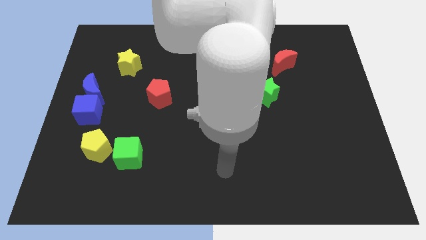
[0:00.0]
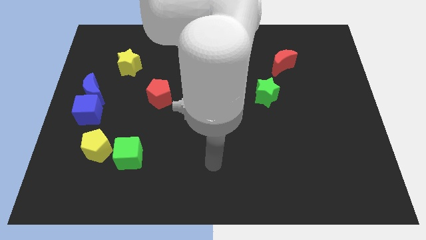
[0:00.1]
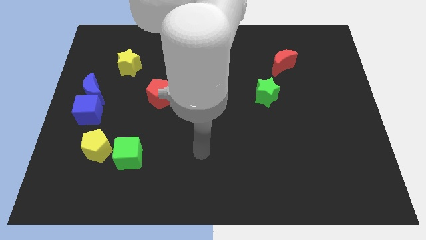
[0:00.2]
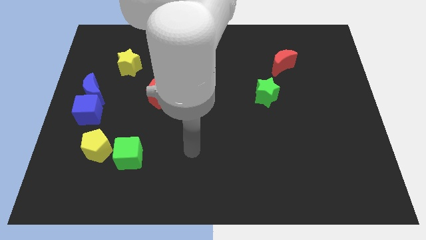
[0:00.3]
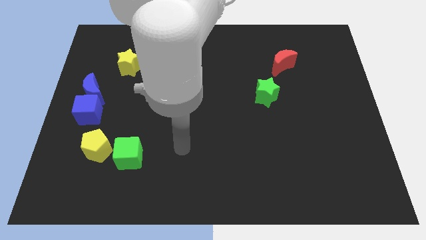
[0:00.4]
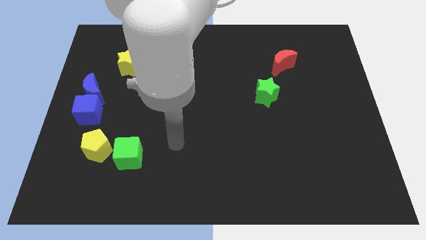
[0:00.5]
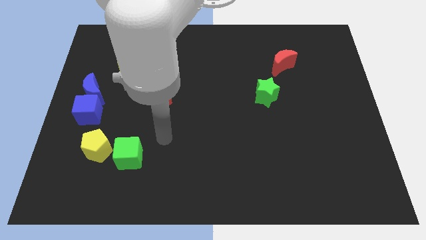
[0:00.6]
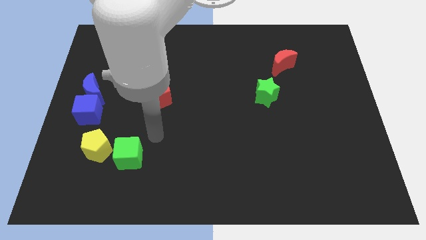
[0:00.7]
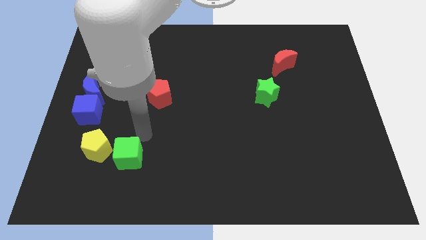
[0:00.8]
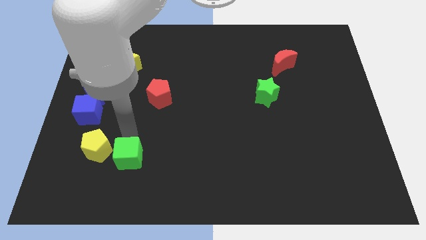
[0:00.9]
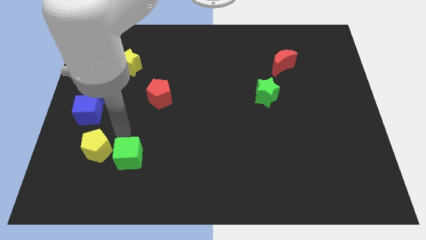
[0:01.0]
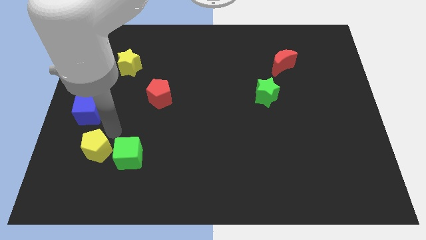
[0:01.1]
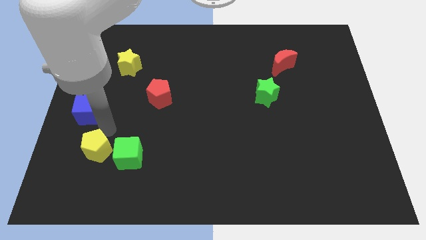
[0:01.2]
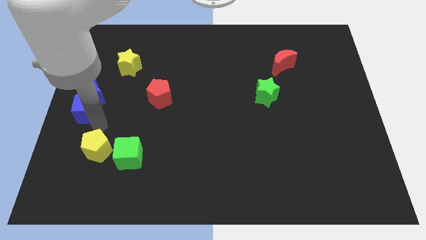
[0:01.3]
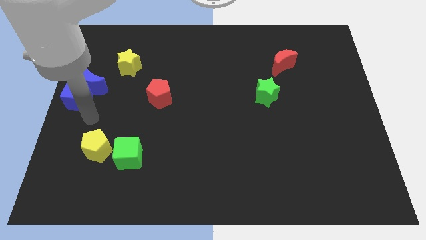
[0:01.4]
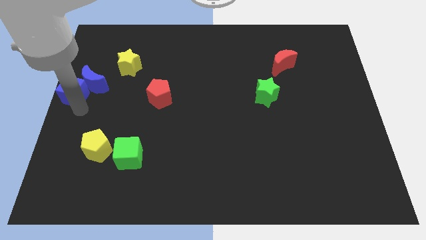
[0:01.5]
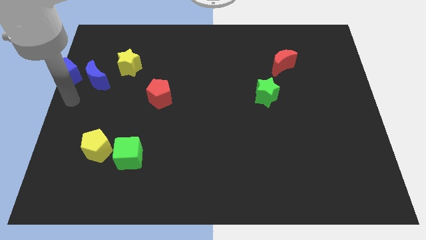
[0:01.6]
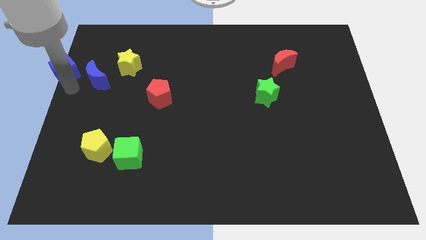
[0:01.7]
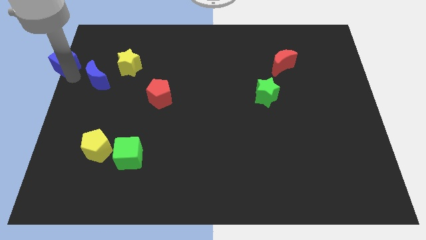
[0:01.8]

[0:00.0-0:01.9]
separate the blue moon from the blue cube

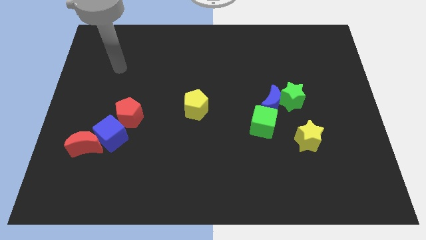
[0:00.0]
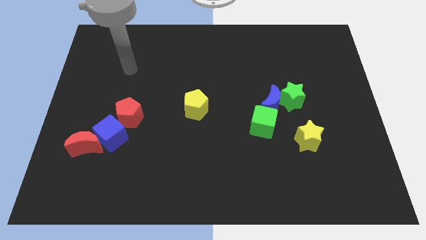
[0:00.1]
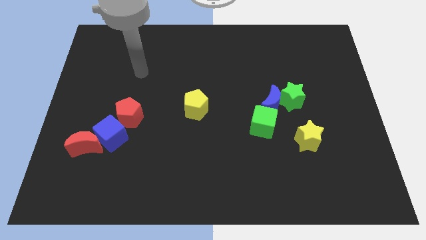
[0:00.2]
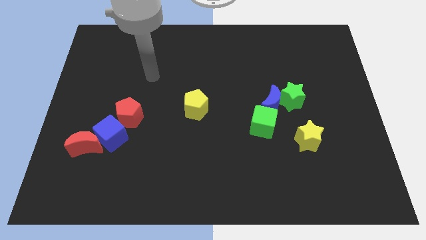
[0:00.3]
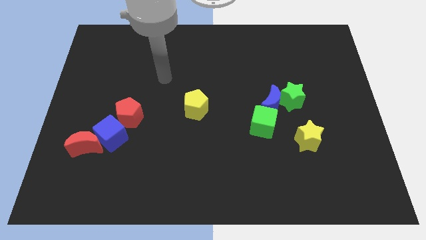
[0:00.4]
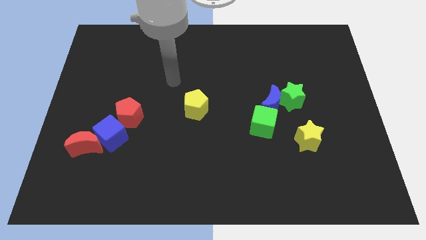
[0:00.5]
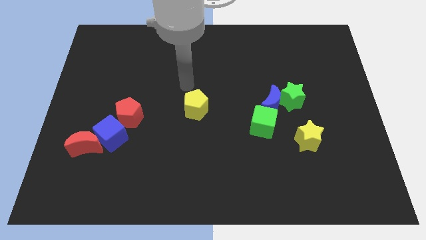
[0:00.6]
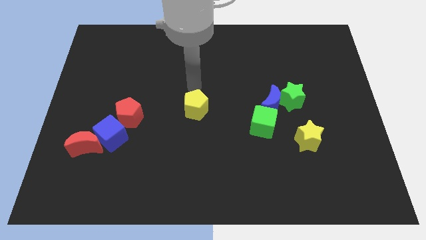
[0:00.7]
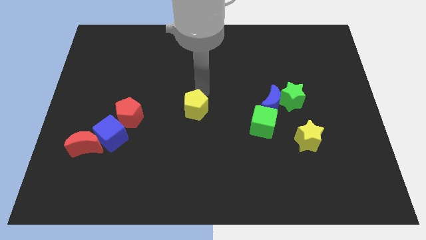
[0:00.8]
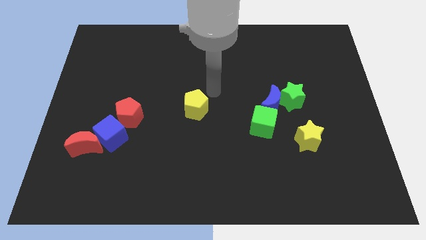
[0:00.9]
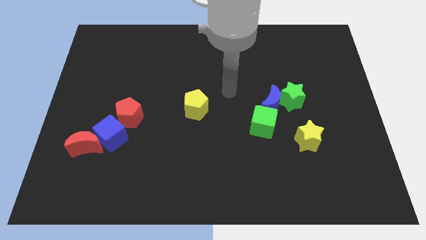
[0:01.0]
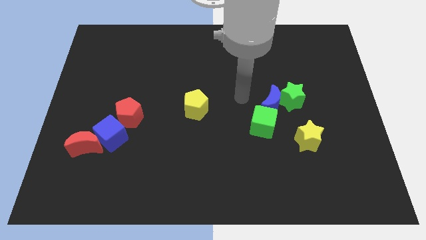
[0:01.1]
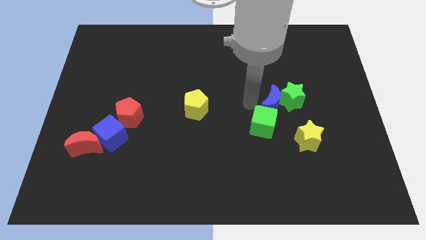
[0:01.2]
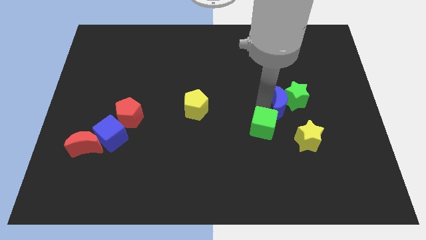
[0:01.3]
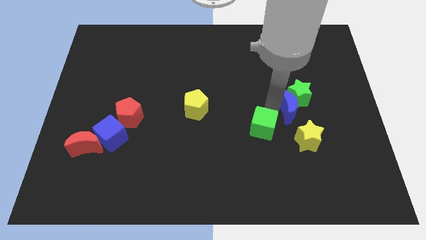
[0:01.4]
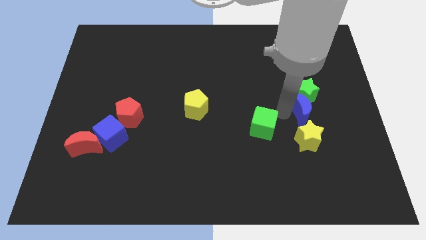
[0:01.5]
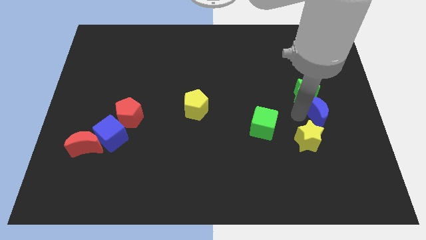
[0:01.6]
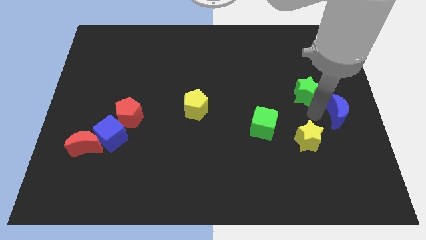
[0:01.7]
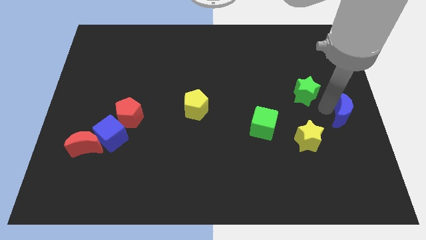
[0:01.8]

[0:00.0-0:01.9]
separate the green star from the blue moon

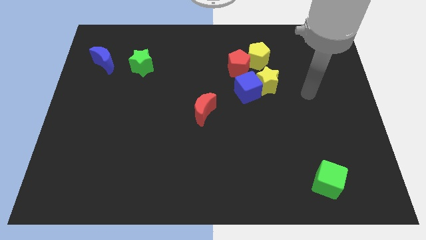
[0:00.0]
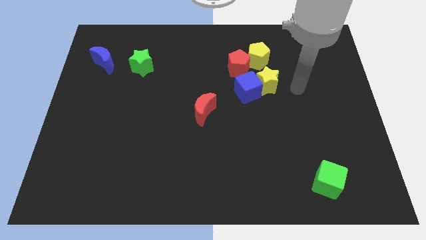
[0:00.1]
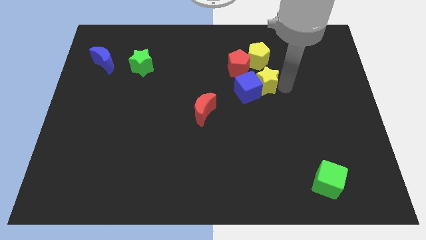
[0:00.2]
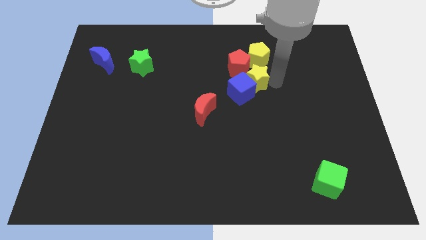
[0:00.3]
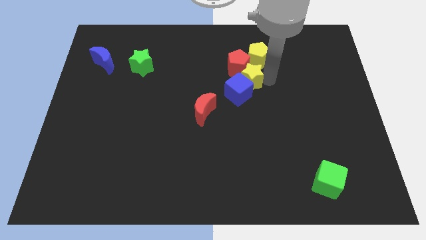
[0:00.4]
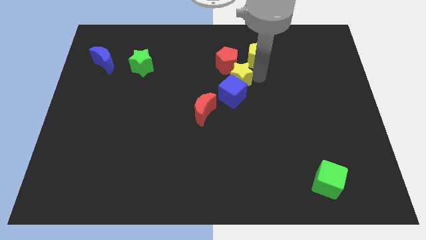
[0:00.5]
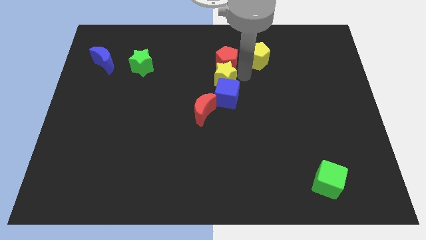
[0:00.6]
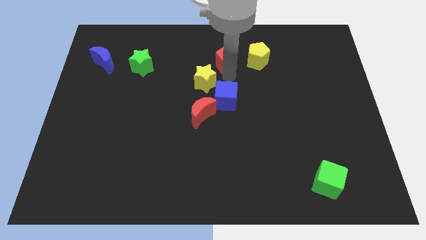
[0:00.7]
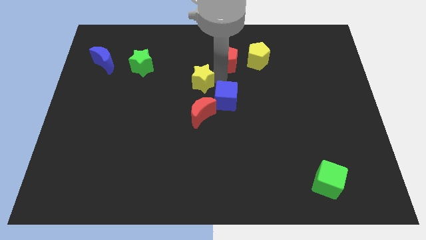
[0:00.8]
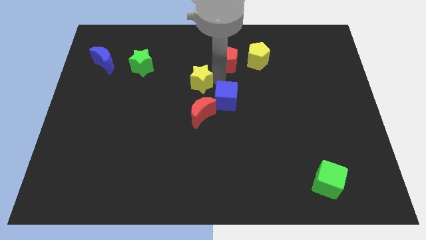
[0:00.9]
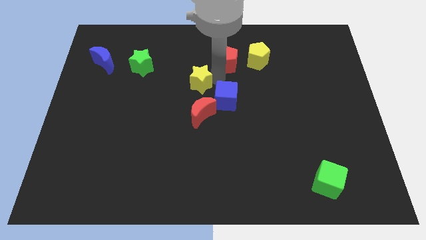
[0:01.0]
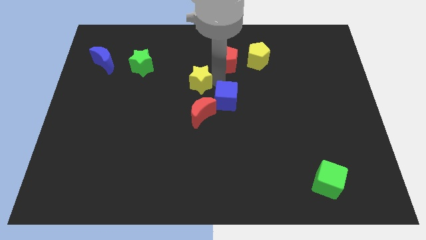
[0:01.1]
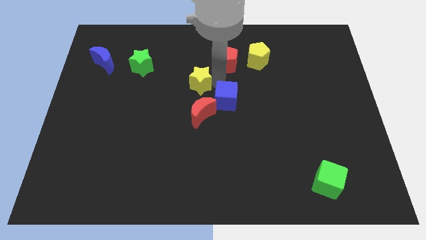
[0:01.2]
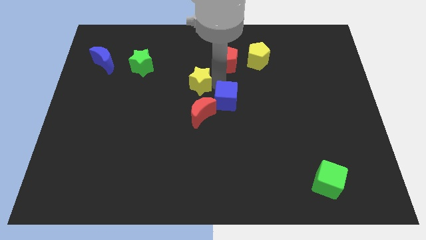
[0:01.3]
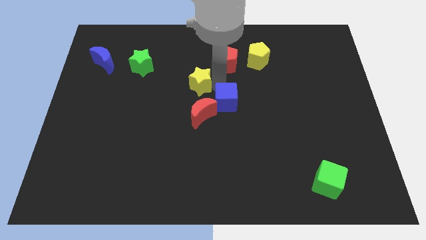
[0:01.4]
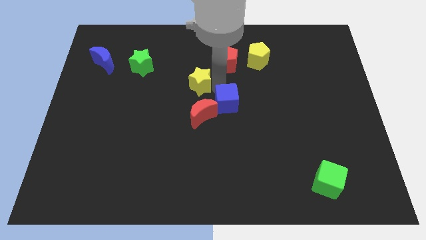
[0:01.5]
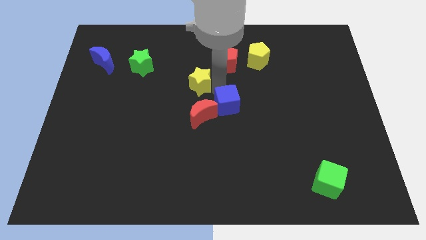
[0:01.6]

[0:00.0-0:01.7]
separate the blue cube from the yellow star and red pentagon

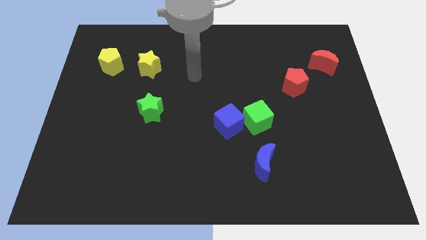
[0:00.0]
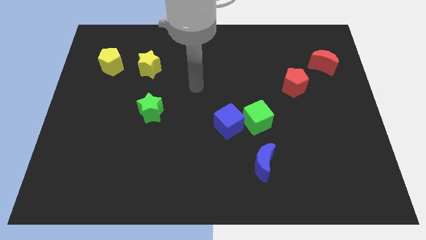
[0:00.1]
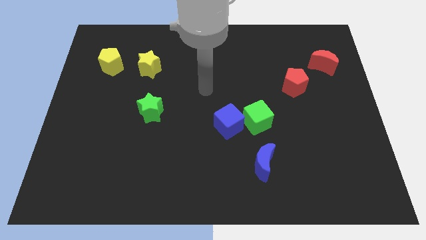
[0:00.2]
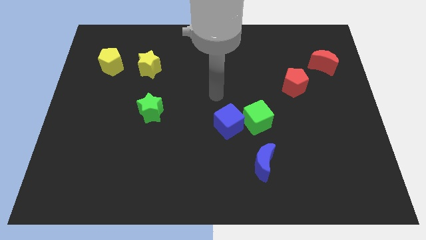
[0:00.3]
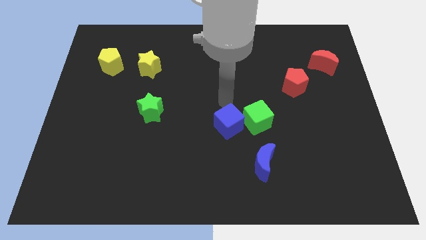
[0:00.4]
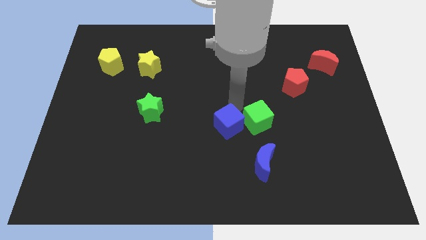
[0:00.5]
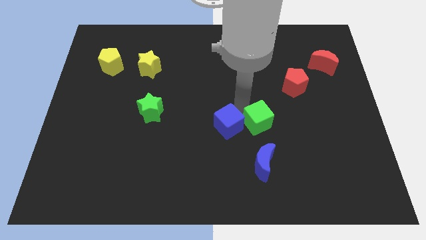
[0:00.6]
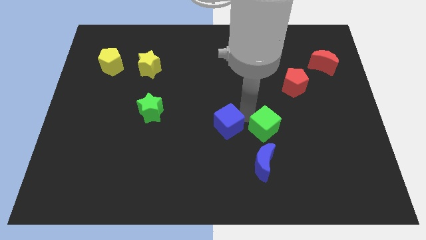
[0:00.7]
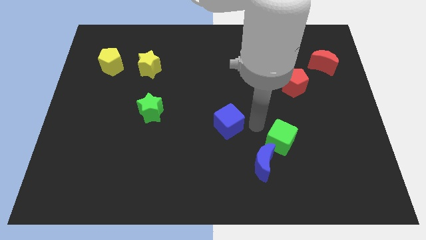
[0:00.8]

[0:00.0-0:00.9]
pull the blue cube apart from the green cube

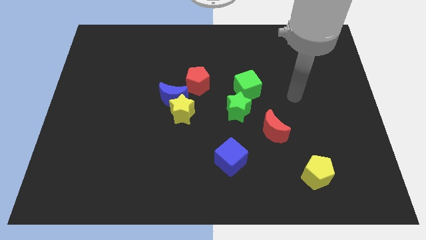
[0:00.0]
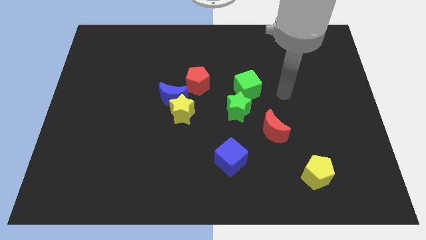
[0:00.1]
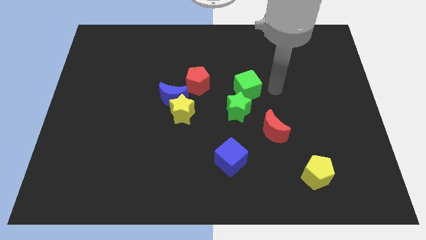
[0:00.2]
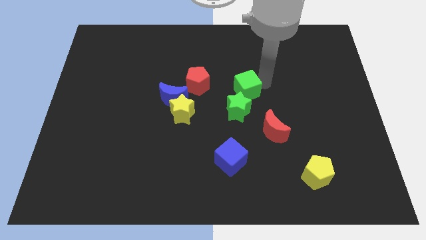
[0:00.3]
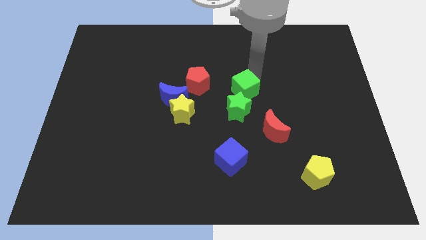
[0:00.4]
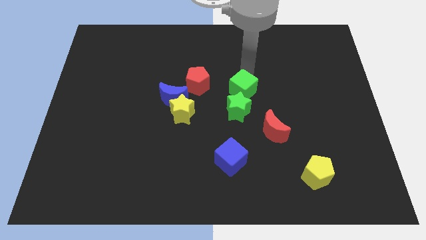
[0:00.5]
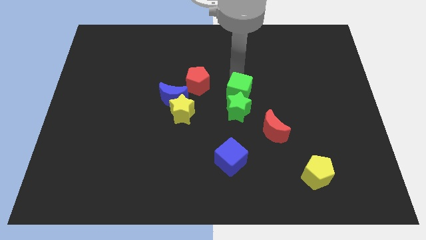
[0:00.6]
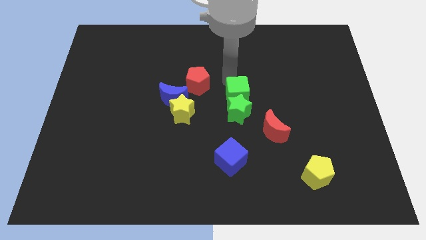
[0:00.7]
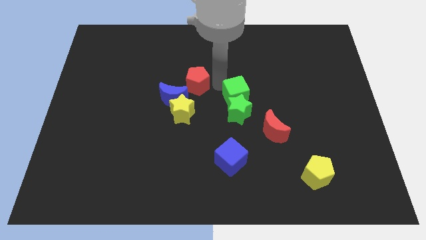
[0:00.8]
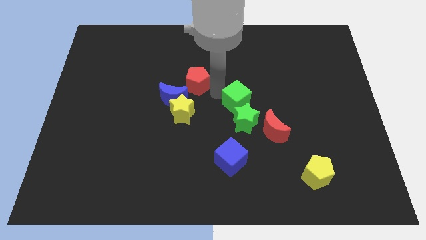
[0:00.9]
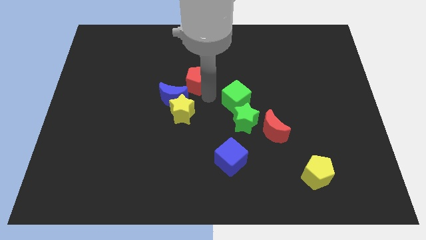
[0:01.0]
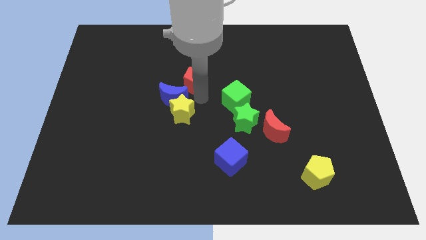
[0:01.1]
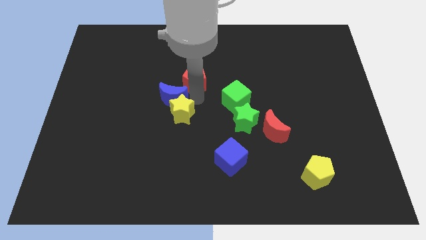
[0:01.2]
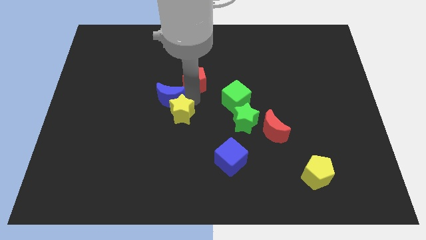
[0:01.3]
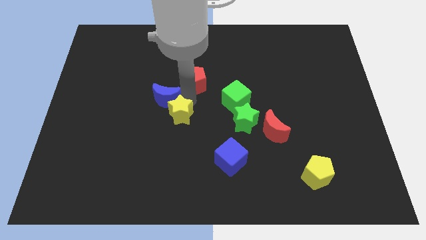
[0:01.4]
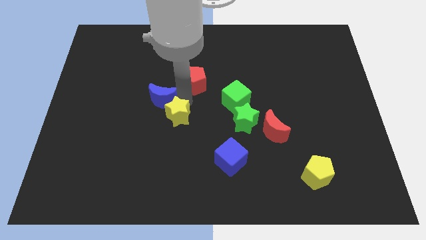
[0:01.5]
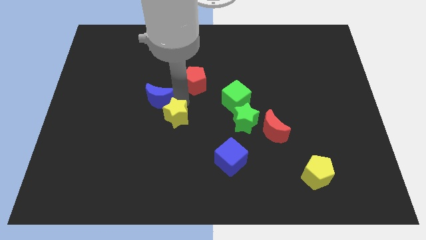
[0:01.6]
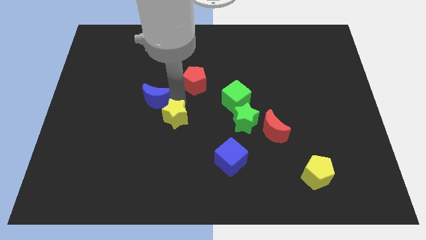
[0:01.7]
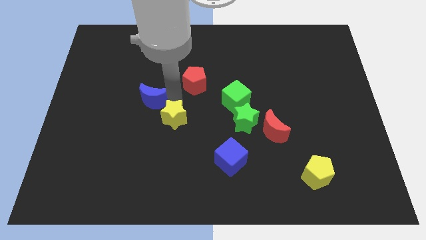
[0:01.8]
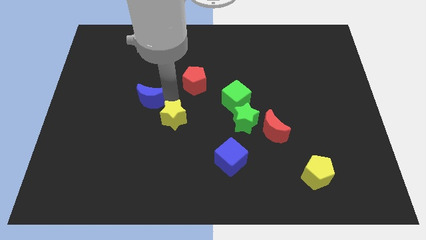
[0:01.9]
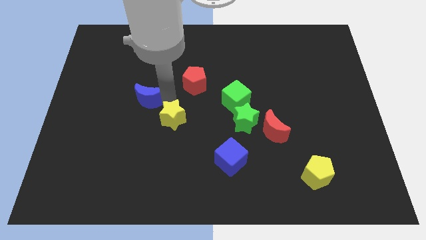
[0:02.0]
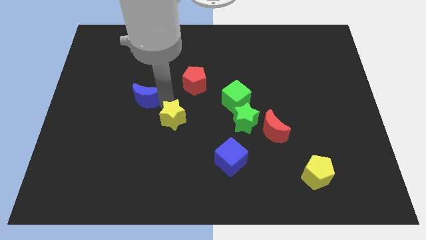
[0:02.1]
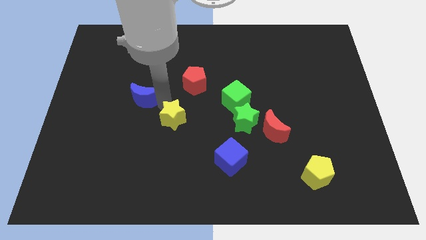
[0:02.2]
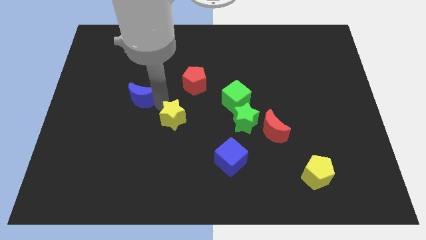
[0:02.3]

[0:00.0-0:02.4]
pull the blue moon apart from the yellow star and red pentagon

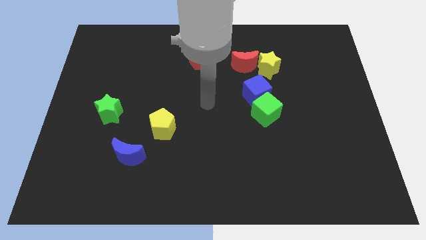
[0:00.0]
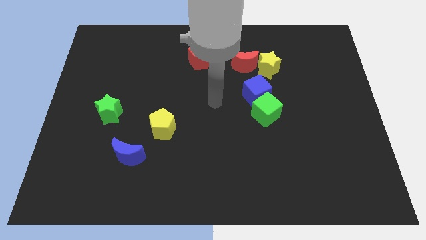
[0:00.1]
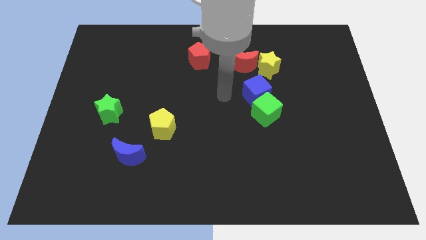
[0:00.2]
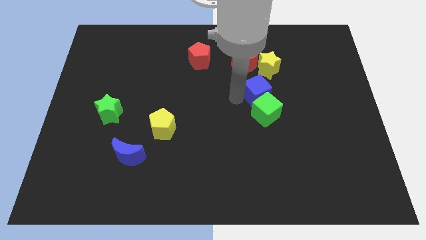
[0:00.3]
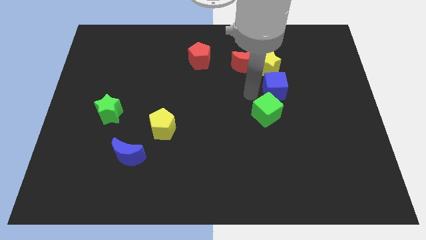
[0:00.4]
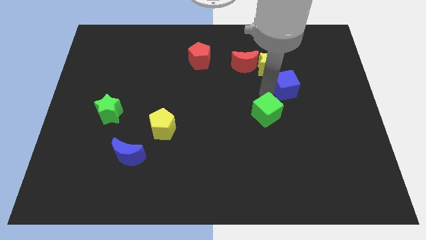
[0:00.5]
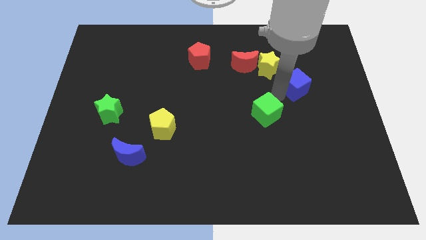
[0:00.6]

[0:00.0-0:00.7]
pull the green cube apart from the blue cube
